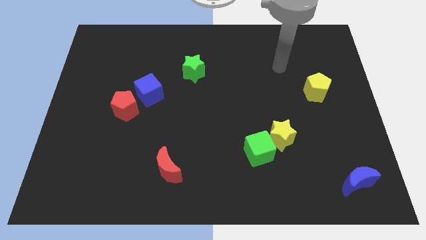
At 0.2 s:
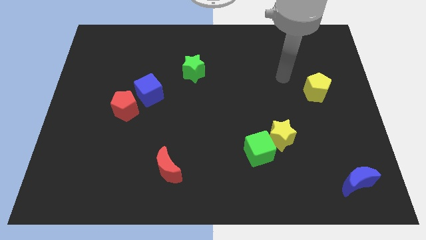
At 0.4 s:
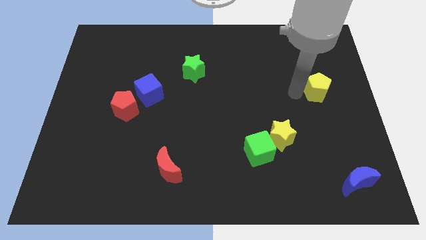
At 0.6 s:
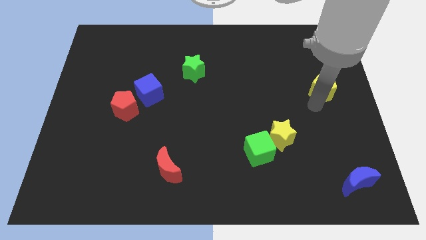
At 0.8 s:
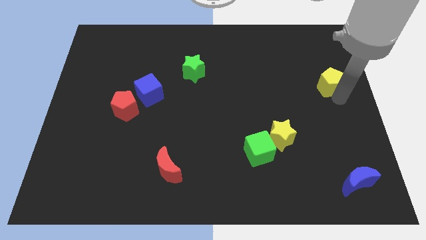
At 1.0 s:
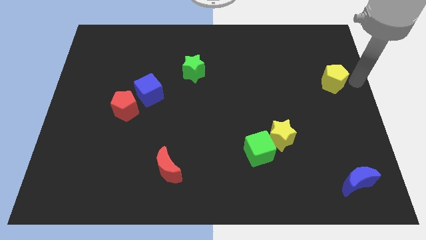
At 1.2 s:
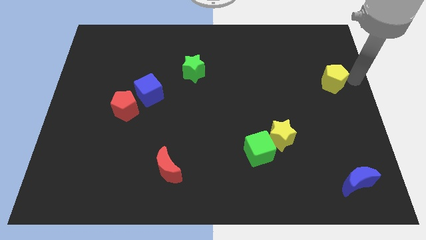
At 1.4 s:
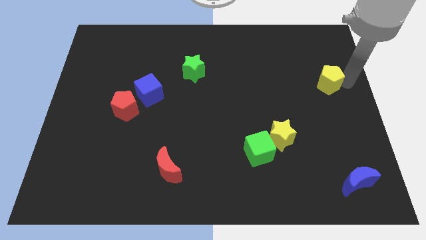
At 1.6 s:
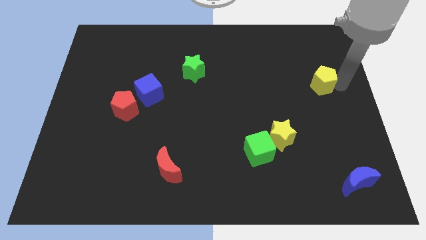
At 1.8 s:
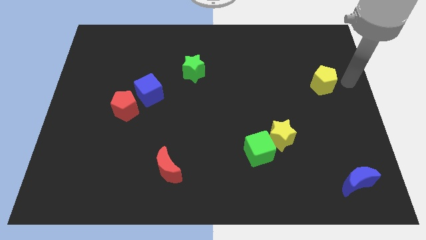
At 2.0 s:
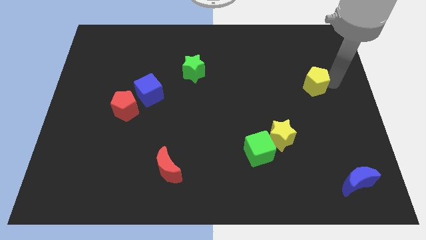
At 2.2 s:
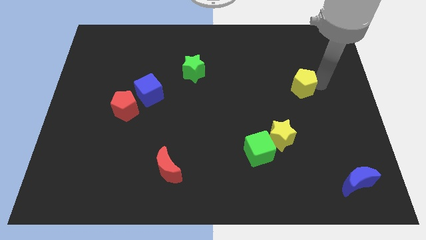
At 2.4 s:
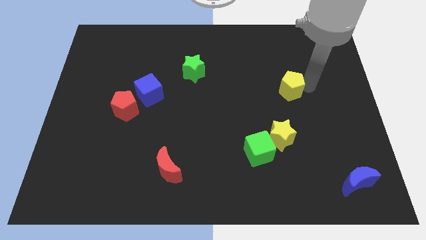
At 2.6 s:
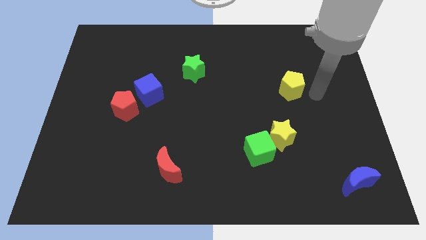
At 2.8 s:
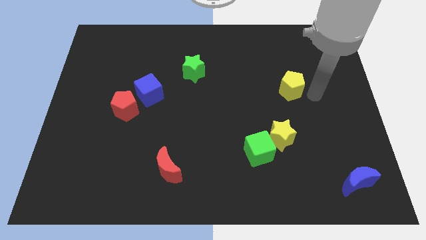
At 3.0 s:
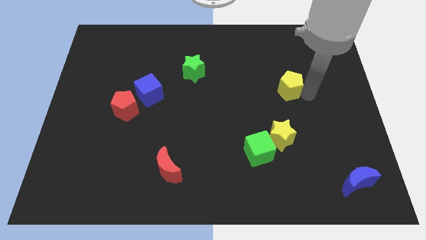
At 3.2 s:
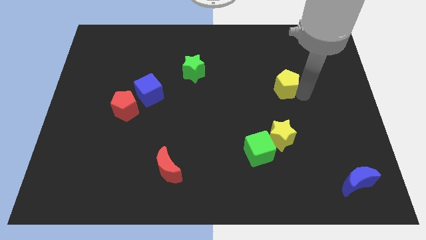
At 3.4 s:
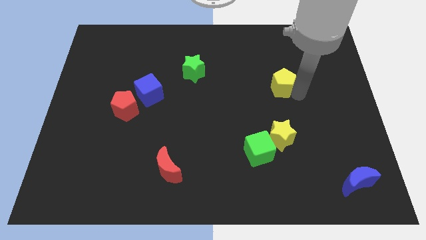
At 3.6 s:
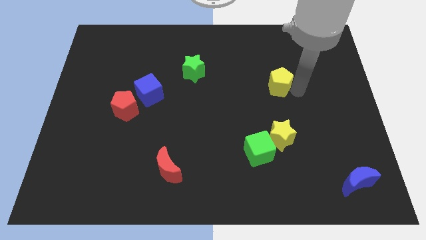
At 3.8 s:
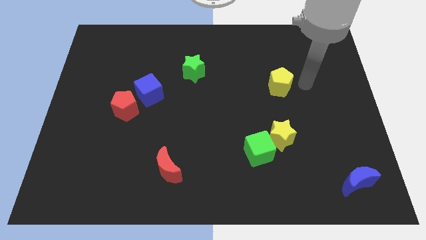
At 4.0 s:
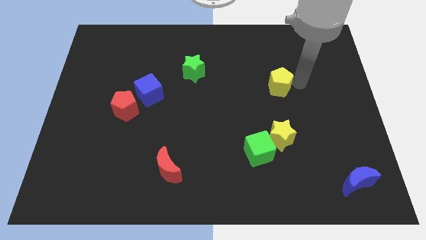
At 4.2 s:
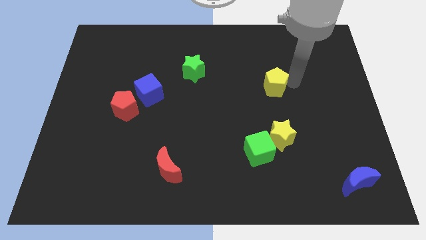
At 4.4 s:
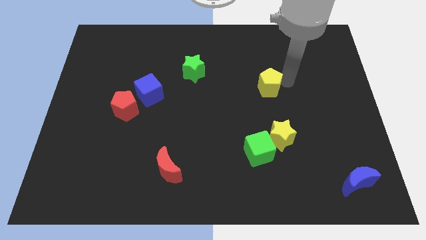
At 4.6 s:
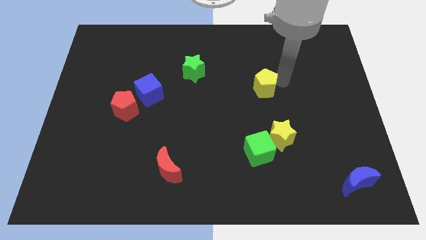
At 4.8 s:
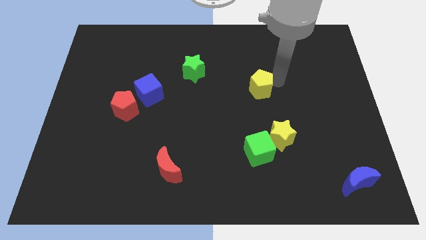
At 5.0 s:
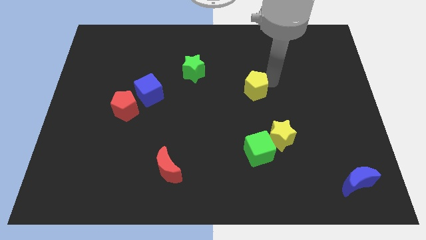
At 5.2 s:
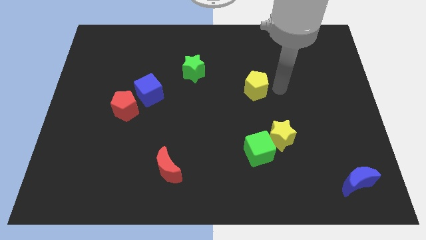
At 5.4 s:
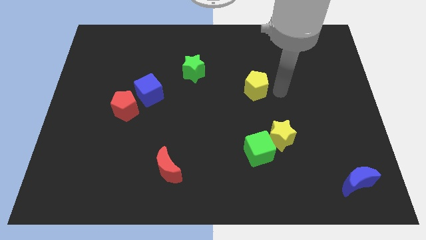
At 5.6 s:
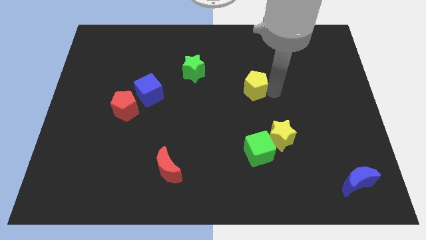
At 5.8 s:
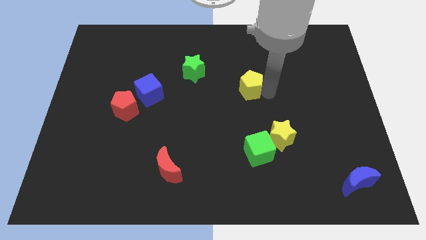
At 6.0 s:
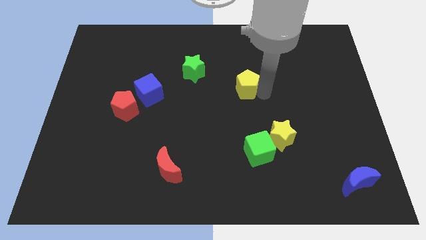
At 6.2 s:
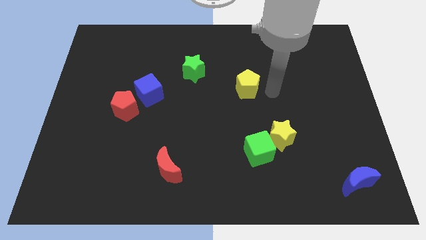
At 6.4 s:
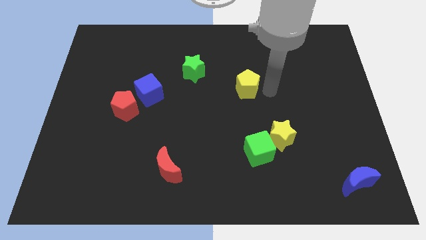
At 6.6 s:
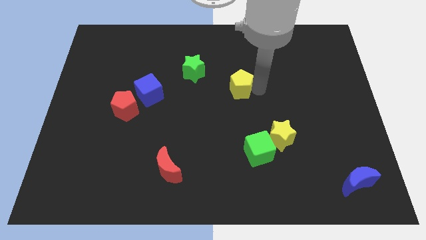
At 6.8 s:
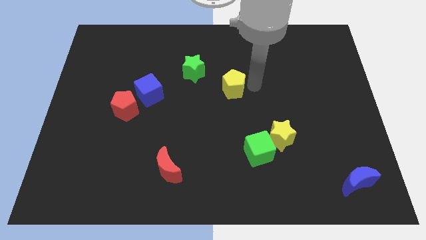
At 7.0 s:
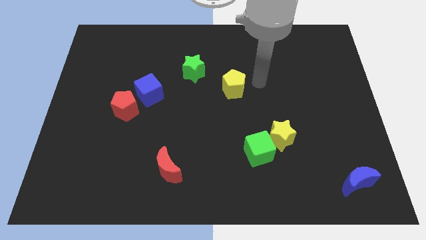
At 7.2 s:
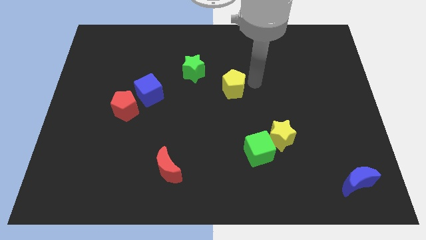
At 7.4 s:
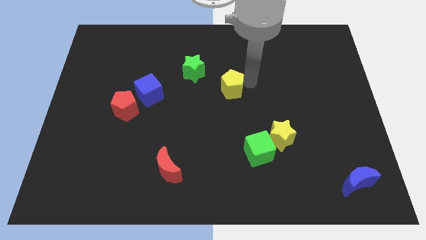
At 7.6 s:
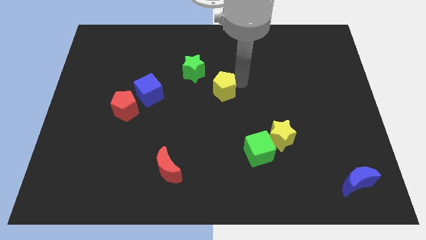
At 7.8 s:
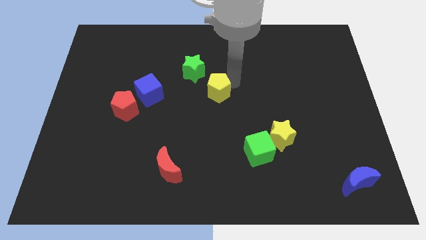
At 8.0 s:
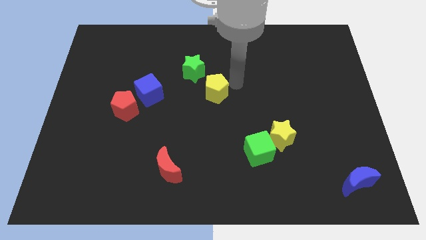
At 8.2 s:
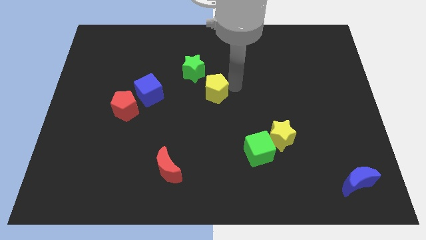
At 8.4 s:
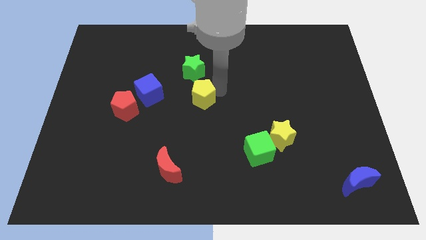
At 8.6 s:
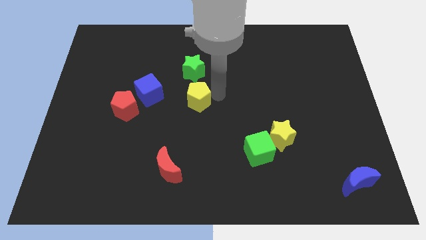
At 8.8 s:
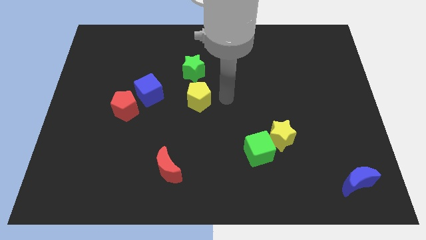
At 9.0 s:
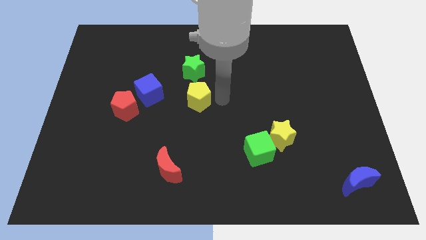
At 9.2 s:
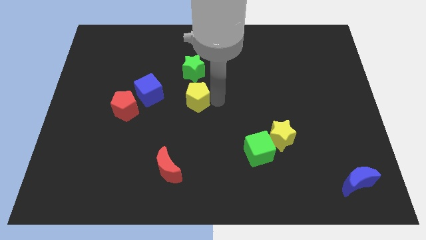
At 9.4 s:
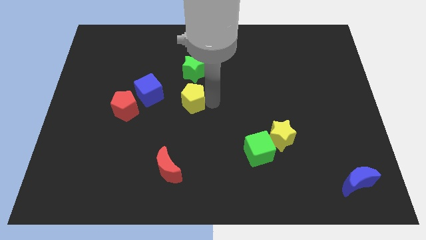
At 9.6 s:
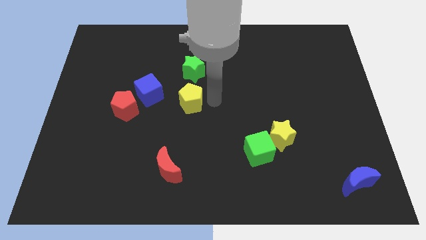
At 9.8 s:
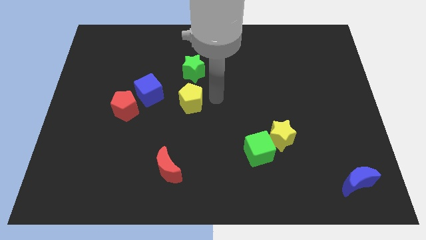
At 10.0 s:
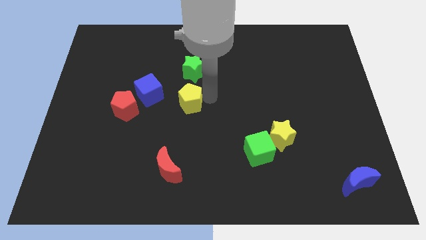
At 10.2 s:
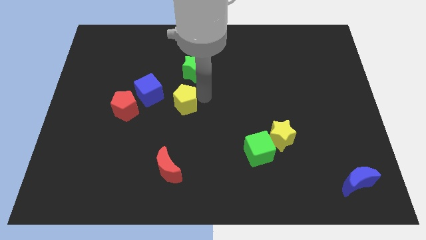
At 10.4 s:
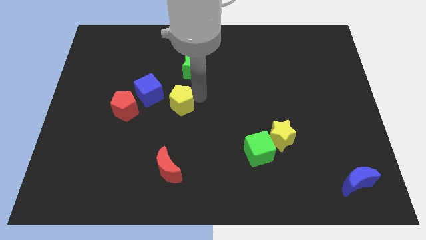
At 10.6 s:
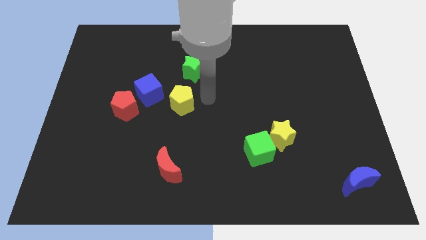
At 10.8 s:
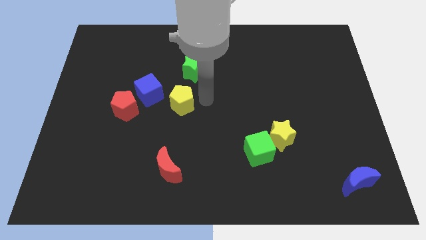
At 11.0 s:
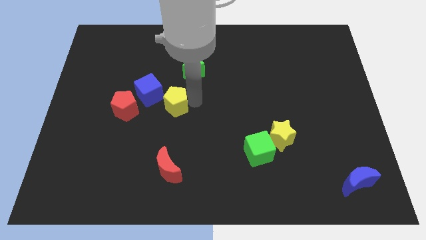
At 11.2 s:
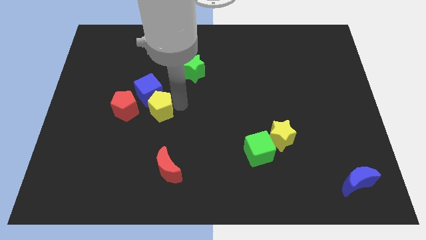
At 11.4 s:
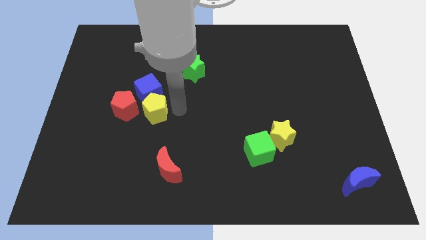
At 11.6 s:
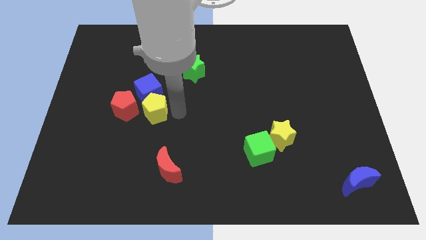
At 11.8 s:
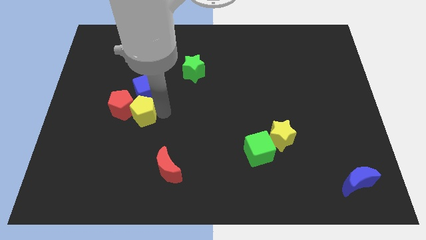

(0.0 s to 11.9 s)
slide the yellow pentagon towards the red pentagon

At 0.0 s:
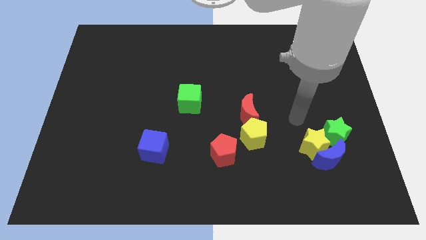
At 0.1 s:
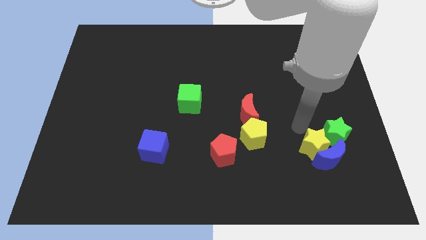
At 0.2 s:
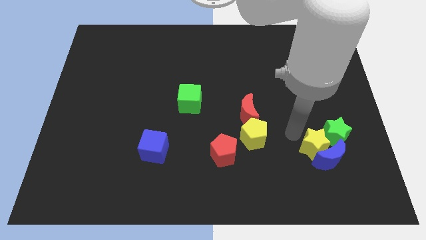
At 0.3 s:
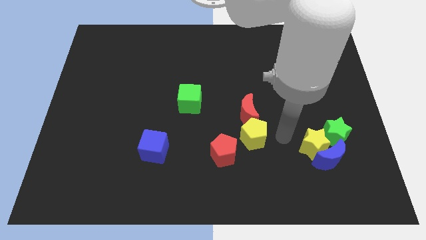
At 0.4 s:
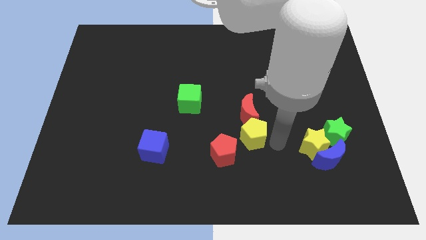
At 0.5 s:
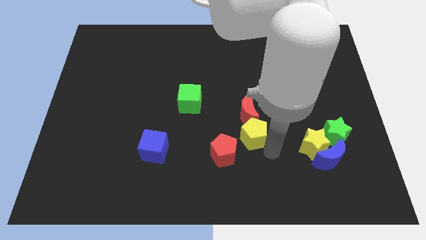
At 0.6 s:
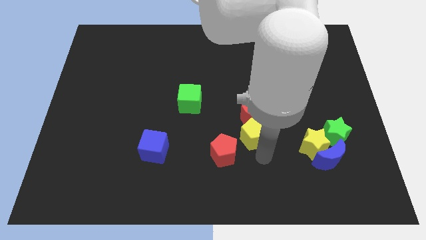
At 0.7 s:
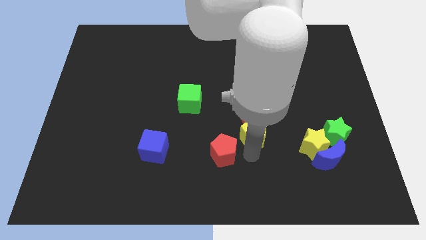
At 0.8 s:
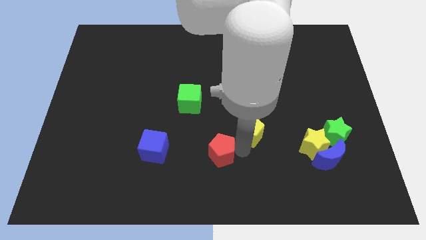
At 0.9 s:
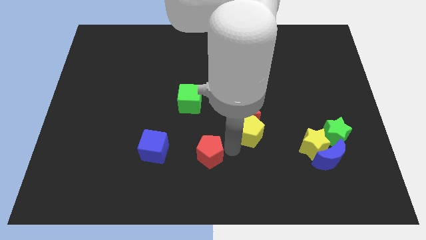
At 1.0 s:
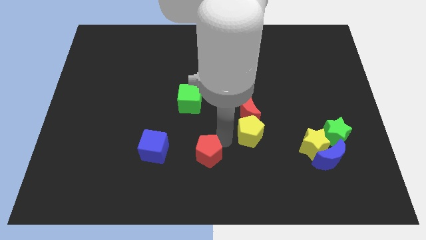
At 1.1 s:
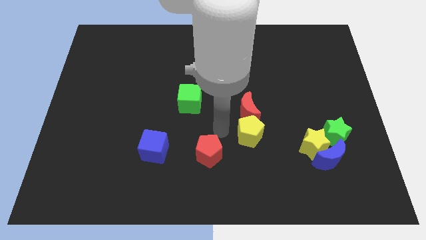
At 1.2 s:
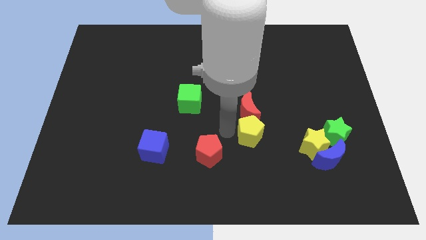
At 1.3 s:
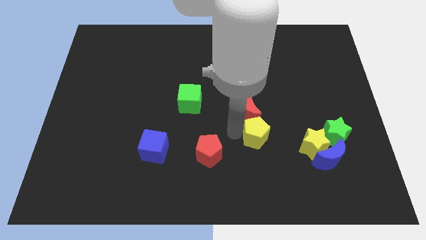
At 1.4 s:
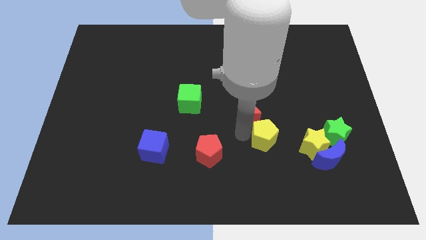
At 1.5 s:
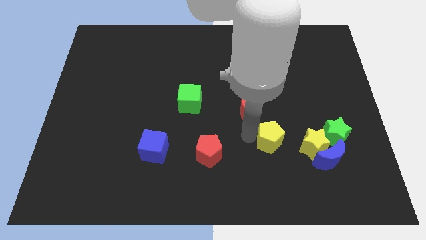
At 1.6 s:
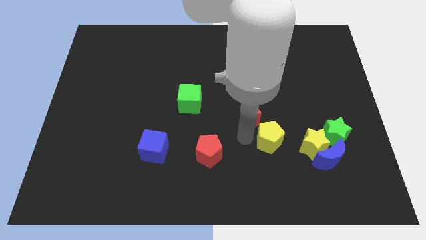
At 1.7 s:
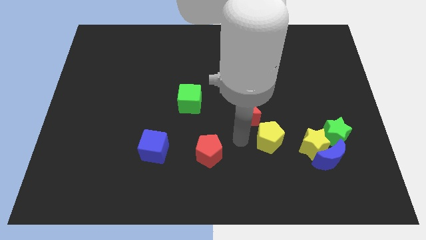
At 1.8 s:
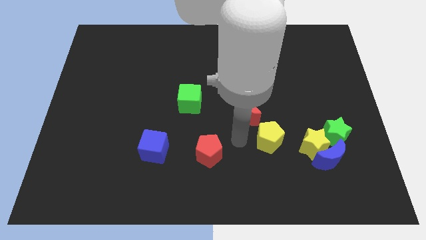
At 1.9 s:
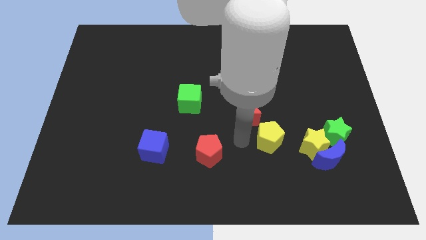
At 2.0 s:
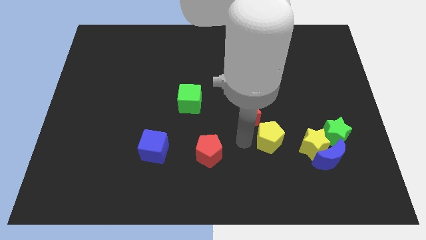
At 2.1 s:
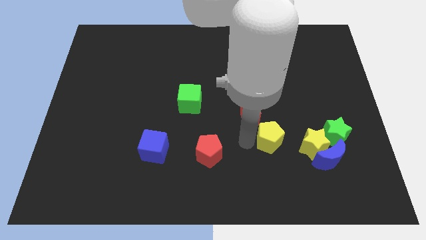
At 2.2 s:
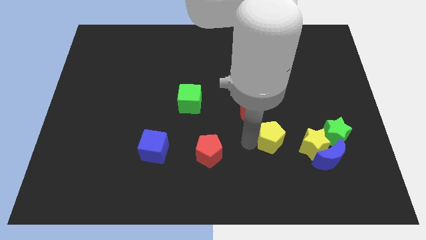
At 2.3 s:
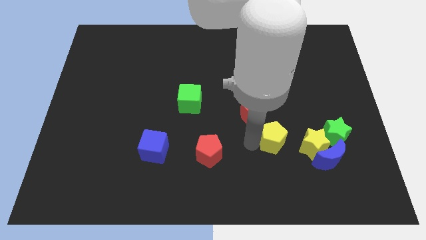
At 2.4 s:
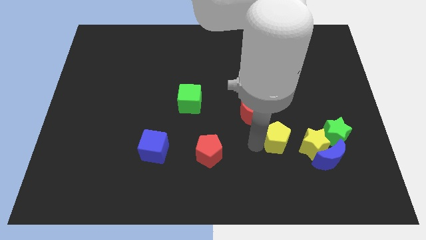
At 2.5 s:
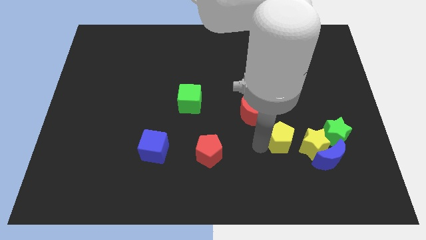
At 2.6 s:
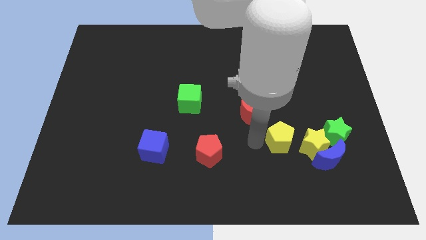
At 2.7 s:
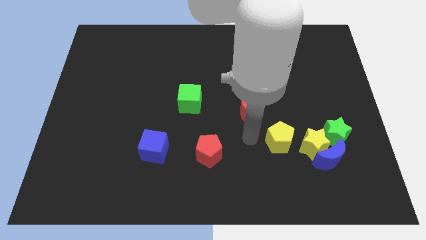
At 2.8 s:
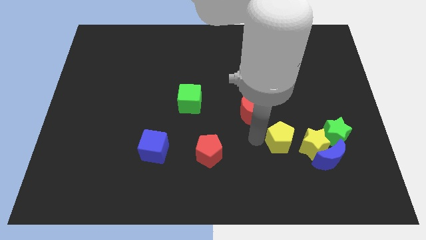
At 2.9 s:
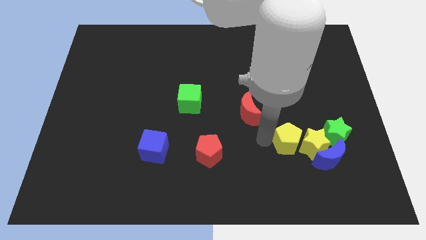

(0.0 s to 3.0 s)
put the yellow pentagon to the yellow star
